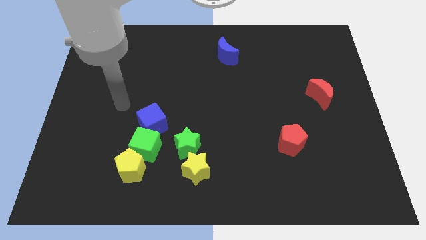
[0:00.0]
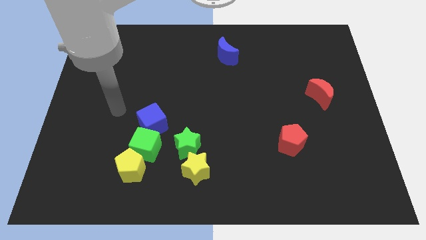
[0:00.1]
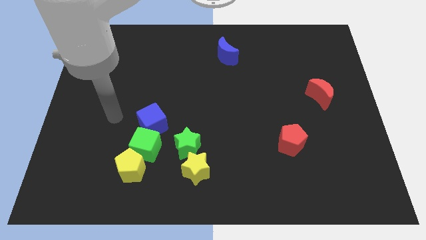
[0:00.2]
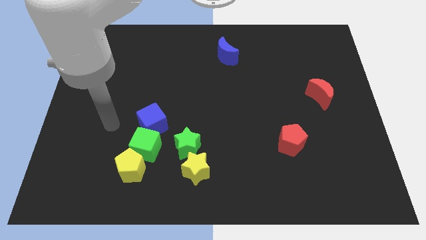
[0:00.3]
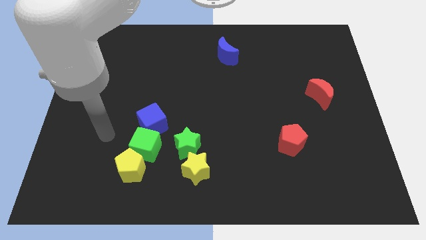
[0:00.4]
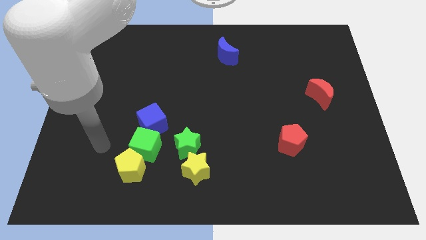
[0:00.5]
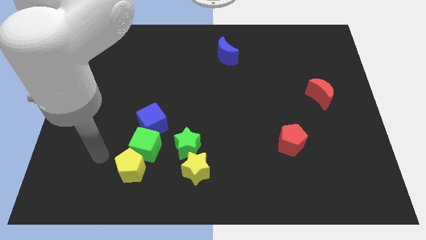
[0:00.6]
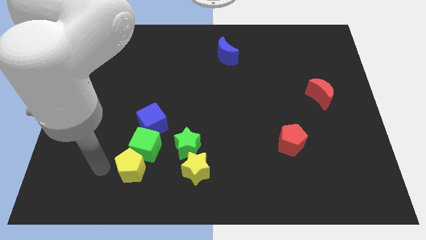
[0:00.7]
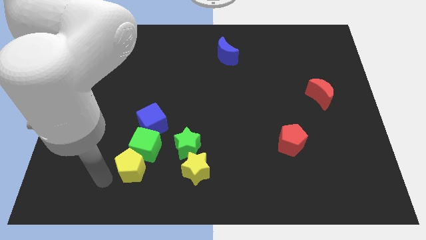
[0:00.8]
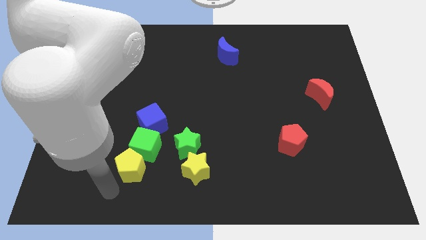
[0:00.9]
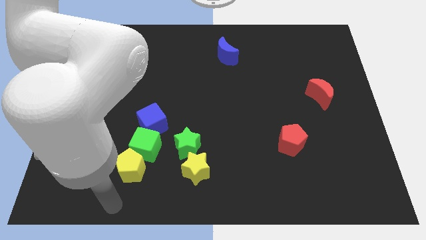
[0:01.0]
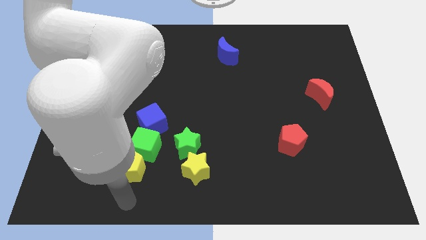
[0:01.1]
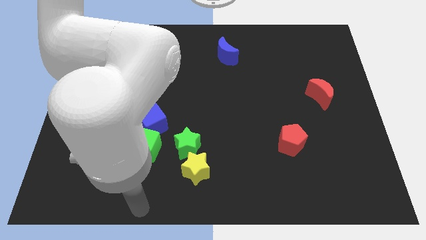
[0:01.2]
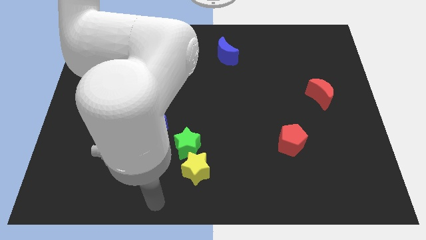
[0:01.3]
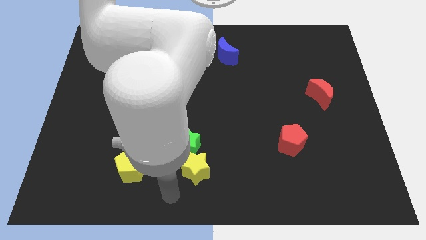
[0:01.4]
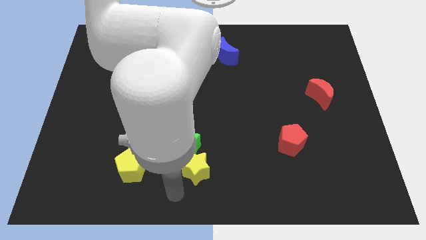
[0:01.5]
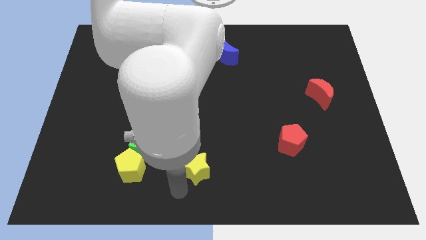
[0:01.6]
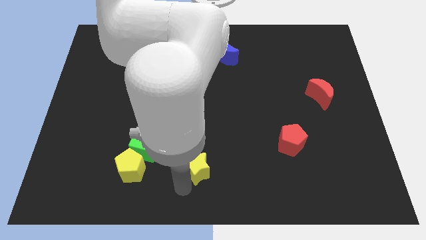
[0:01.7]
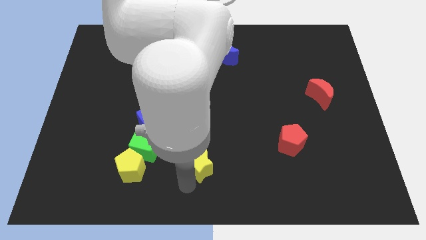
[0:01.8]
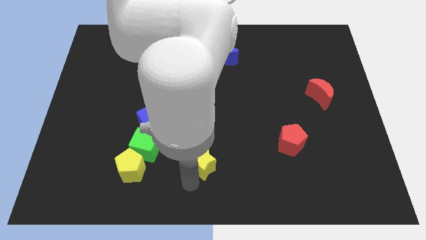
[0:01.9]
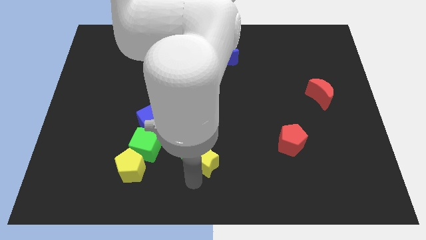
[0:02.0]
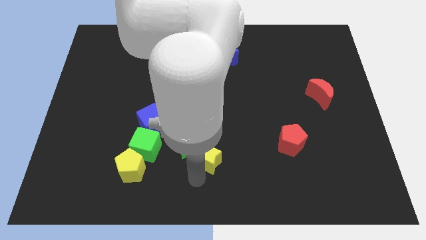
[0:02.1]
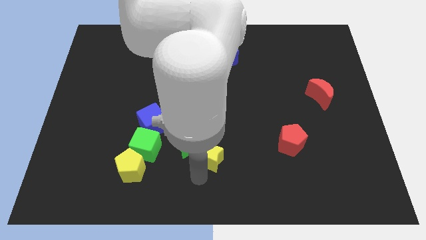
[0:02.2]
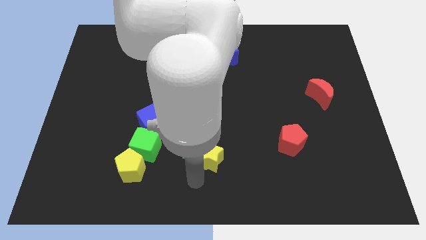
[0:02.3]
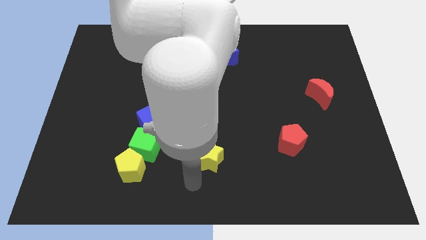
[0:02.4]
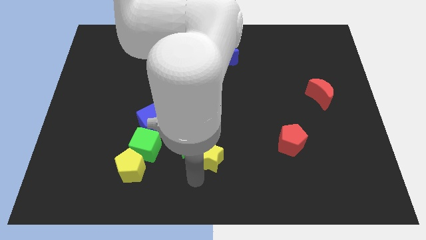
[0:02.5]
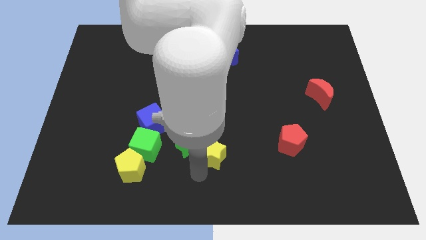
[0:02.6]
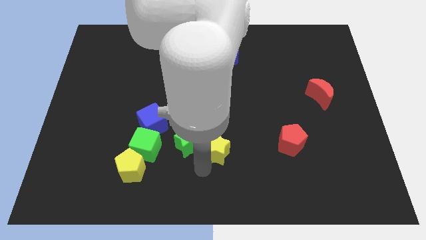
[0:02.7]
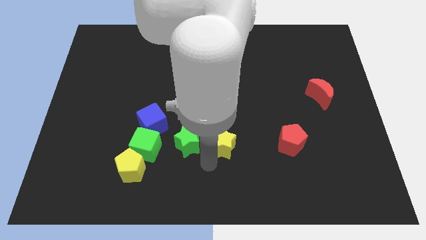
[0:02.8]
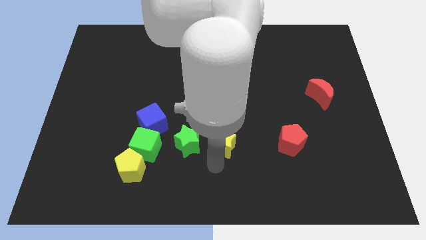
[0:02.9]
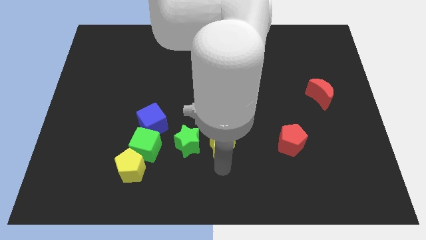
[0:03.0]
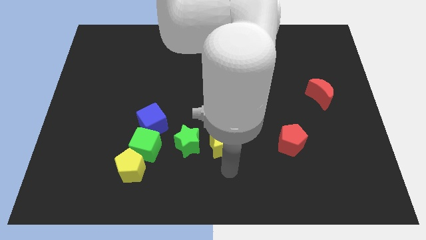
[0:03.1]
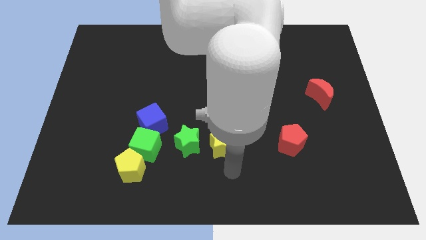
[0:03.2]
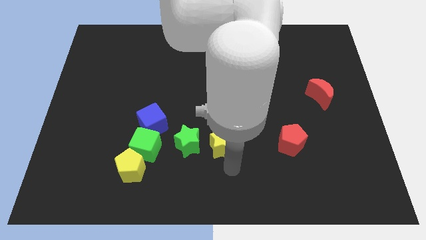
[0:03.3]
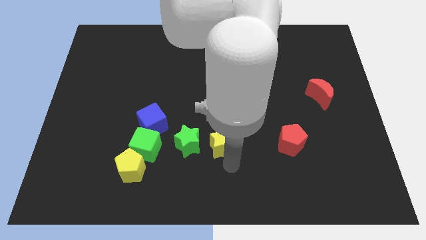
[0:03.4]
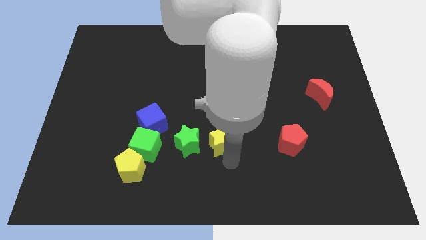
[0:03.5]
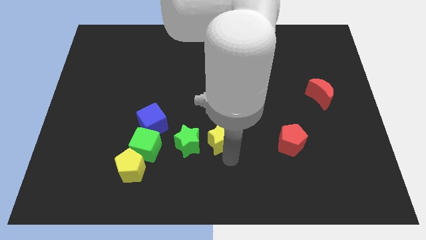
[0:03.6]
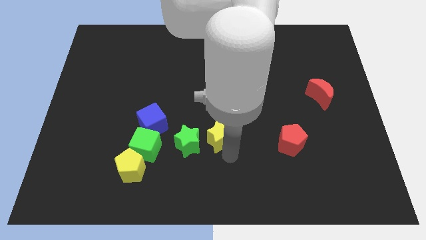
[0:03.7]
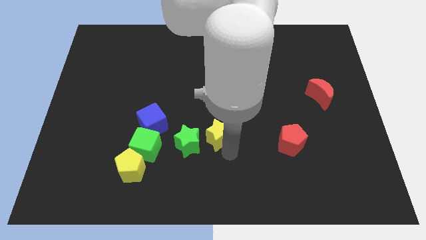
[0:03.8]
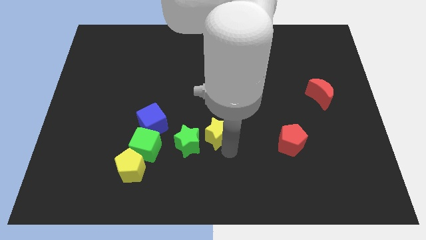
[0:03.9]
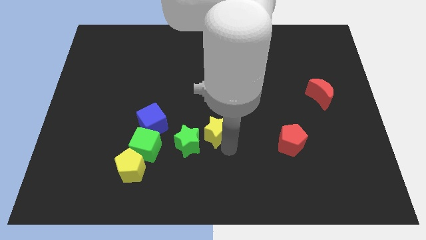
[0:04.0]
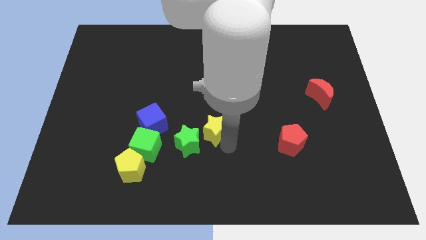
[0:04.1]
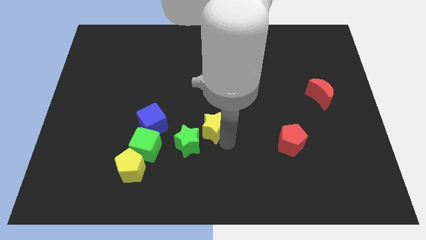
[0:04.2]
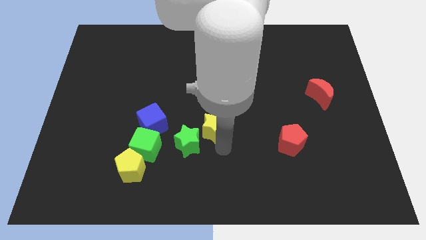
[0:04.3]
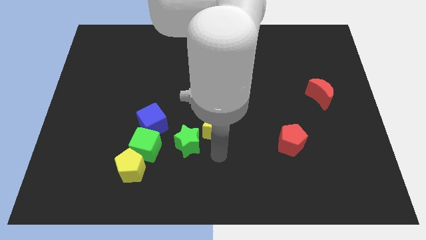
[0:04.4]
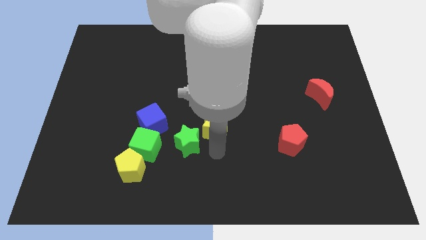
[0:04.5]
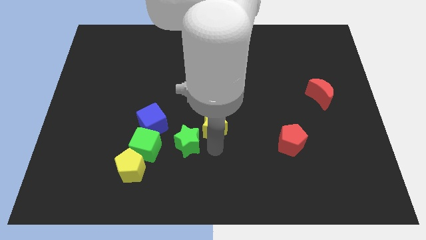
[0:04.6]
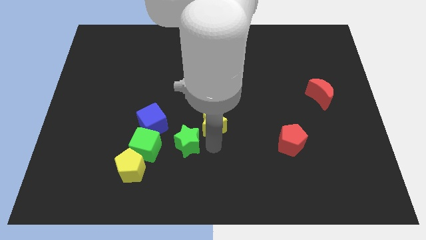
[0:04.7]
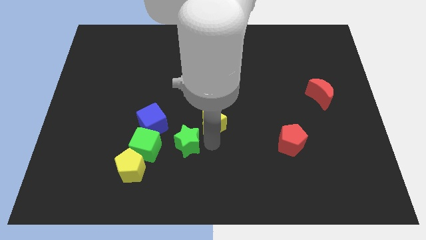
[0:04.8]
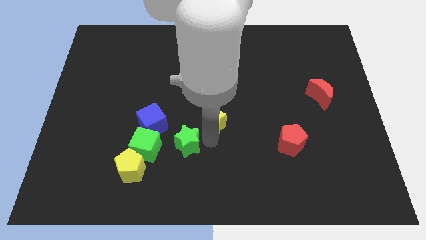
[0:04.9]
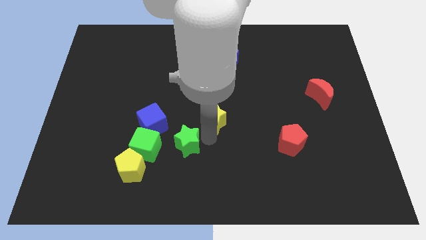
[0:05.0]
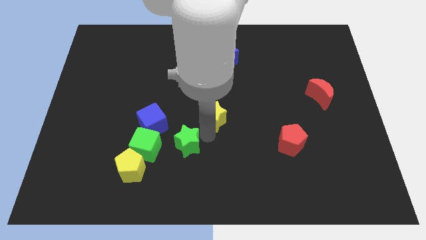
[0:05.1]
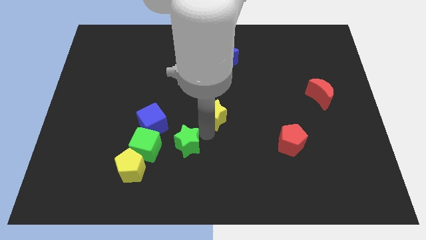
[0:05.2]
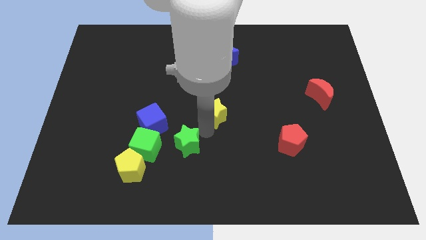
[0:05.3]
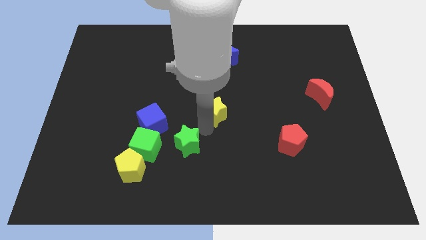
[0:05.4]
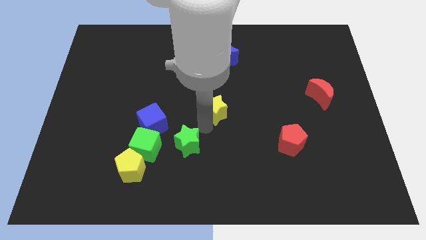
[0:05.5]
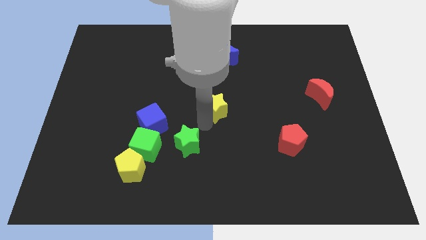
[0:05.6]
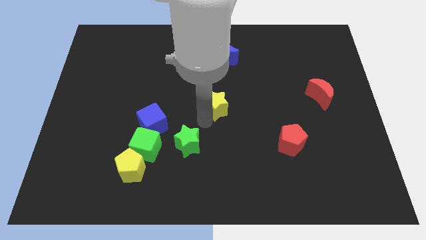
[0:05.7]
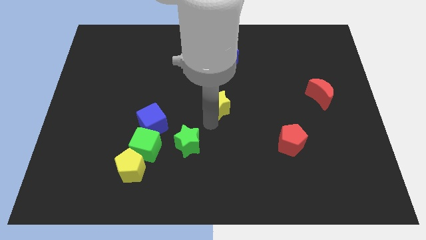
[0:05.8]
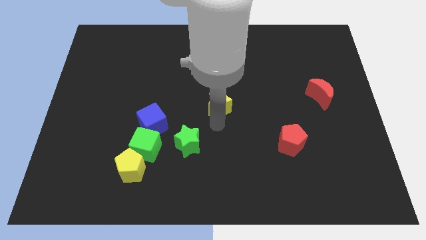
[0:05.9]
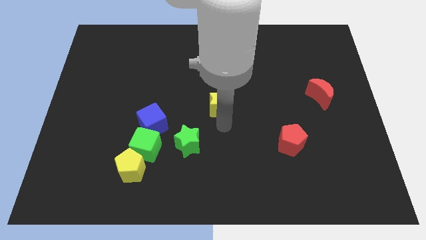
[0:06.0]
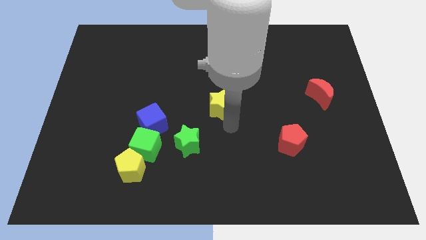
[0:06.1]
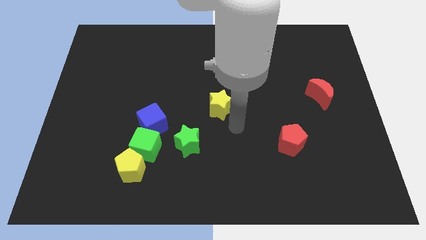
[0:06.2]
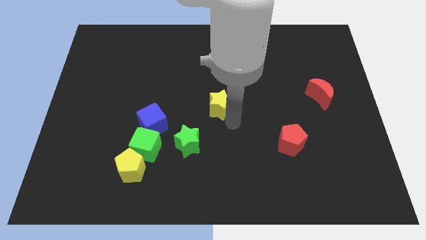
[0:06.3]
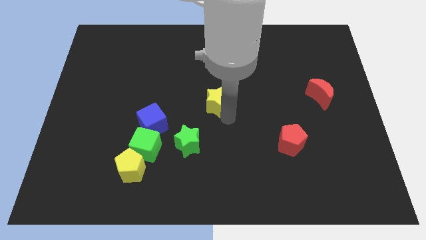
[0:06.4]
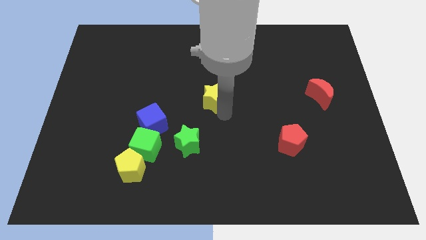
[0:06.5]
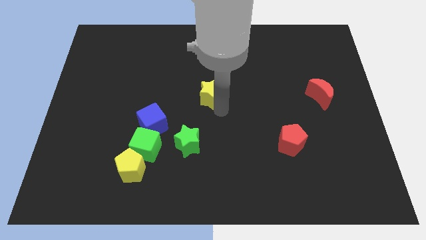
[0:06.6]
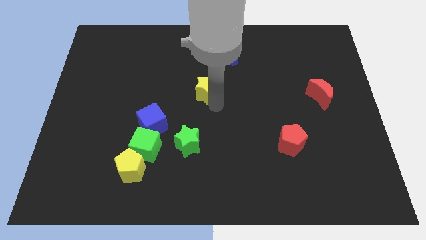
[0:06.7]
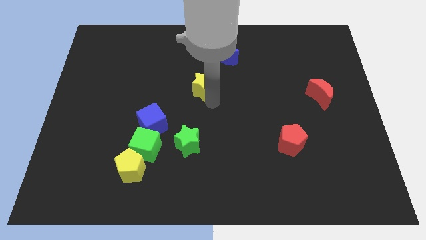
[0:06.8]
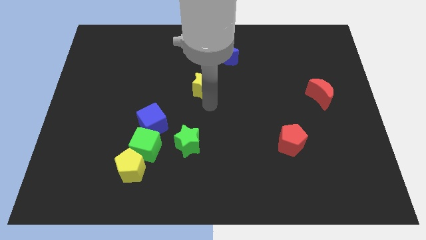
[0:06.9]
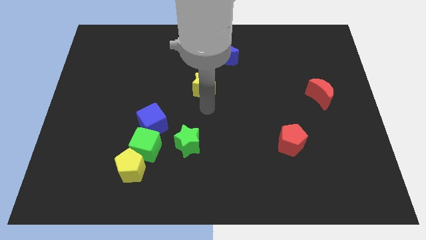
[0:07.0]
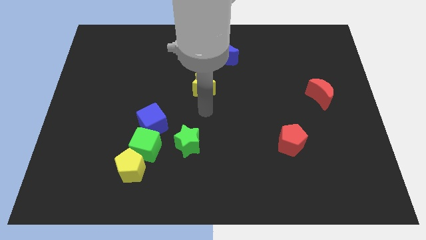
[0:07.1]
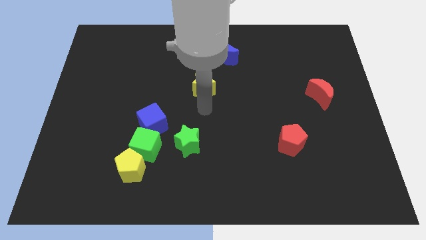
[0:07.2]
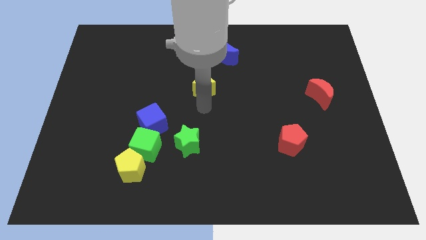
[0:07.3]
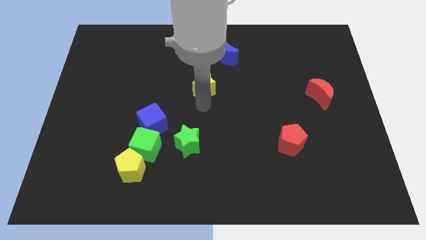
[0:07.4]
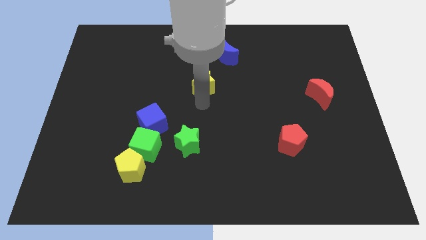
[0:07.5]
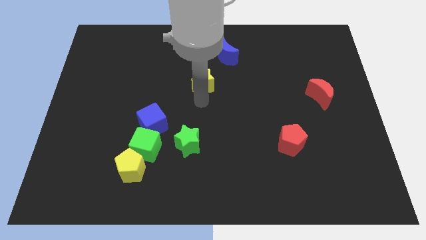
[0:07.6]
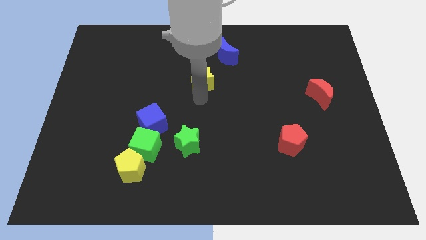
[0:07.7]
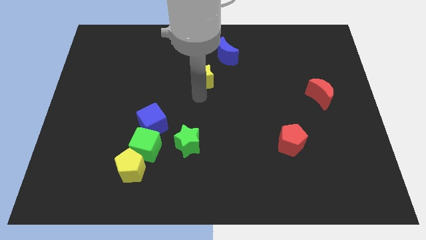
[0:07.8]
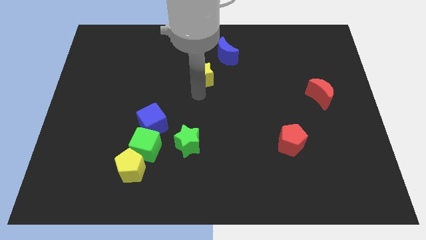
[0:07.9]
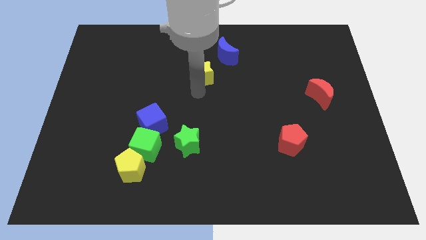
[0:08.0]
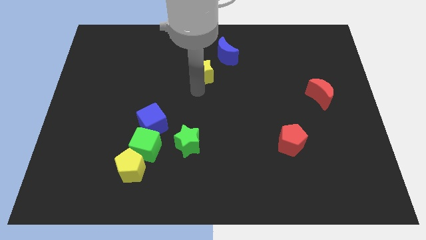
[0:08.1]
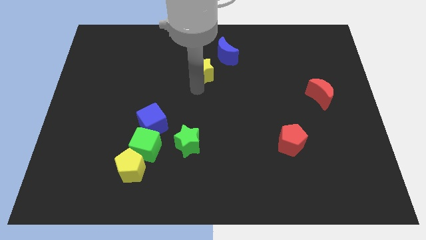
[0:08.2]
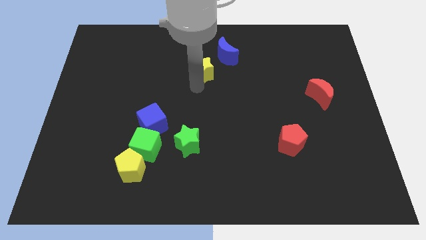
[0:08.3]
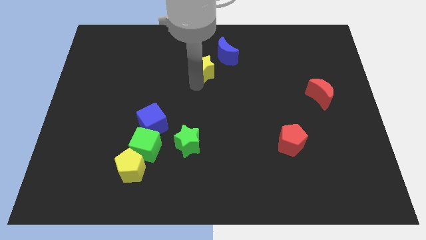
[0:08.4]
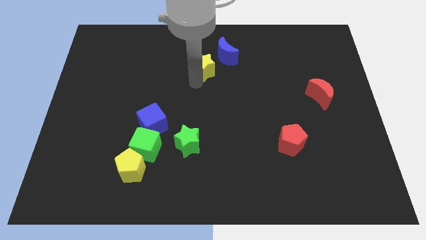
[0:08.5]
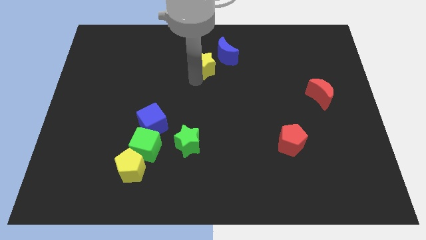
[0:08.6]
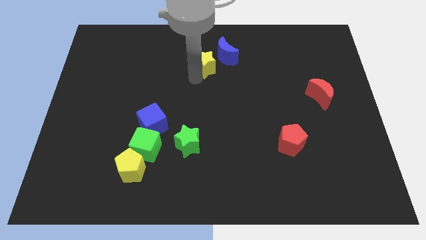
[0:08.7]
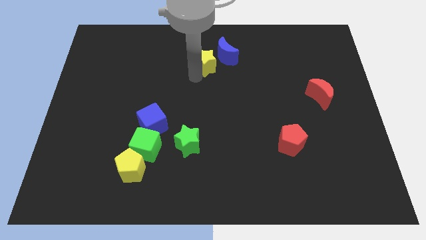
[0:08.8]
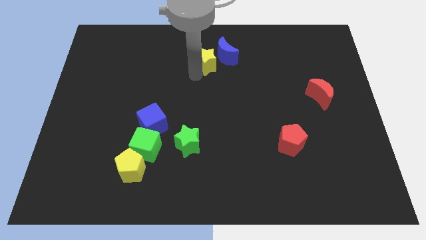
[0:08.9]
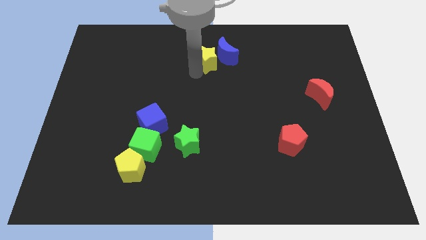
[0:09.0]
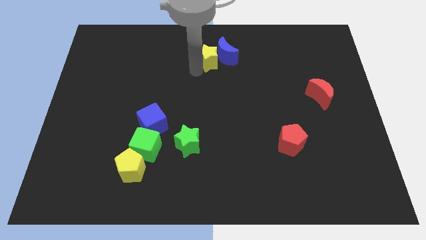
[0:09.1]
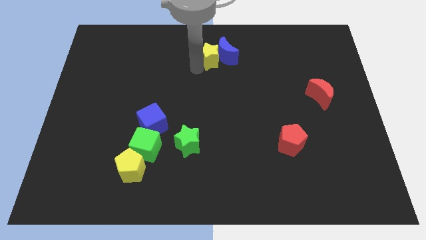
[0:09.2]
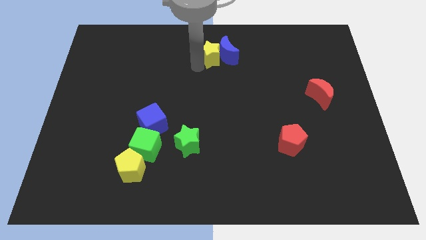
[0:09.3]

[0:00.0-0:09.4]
push the yellow star to the top side
